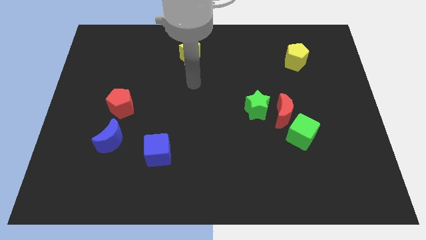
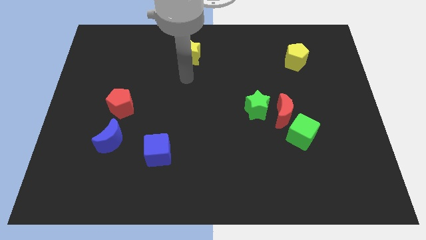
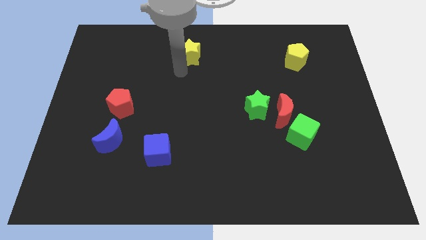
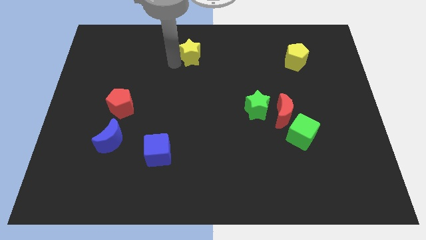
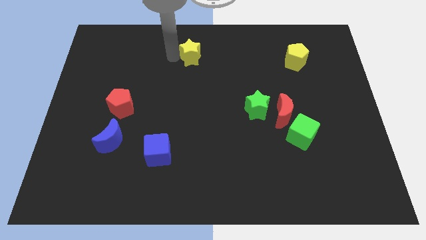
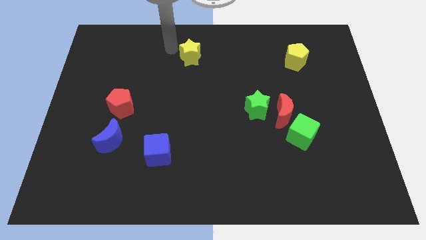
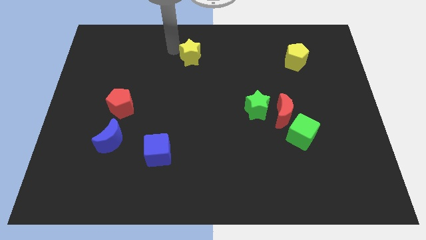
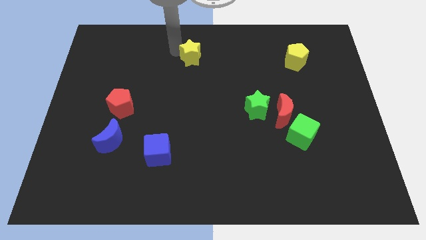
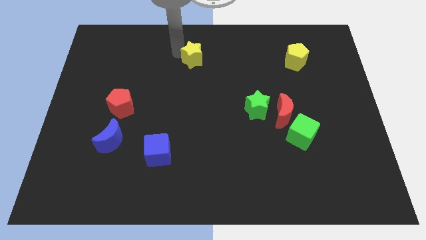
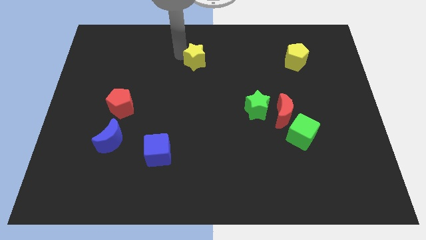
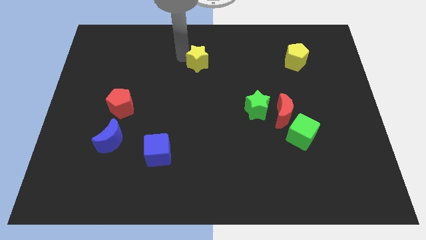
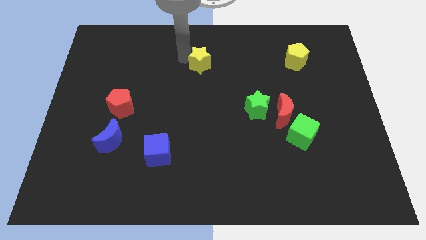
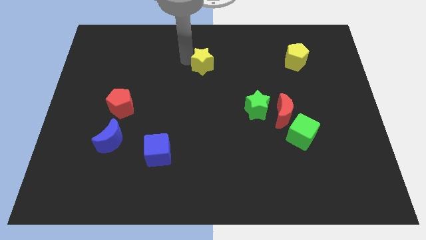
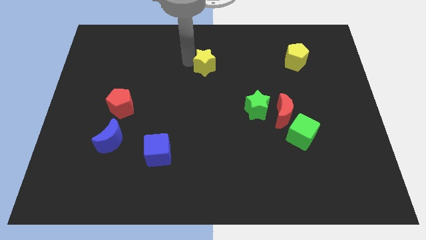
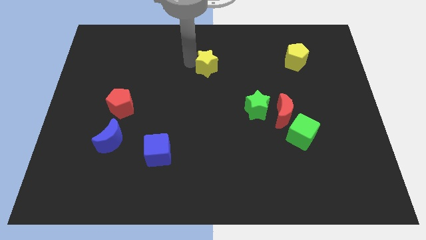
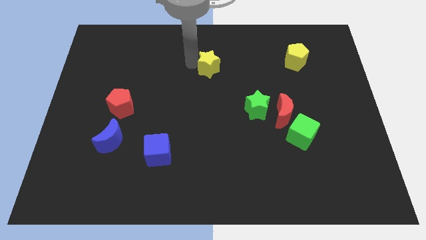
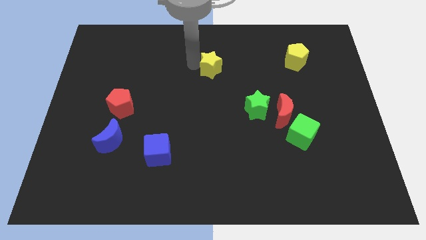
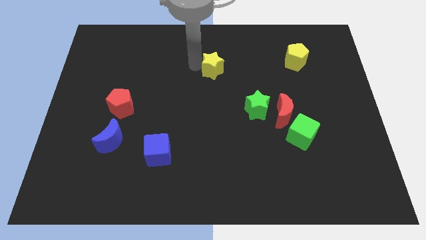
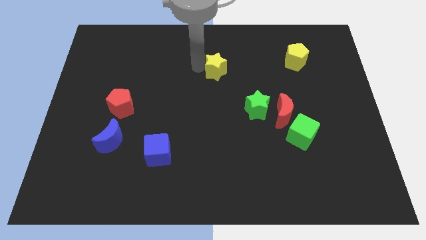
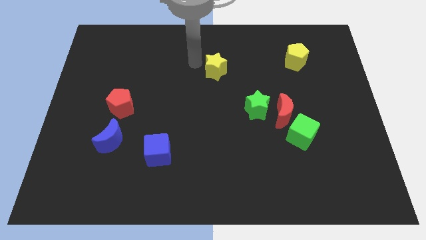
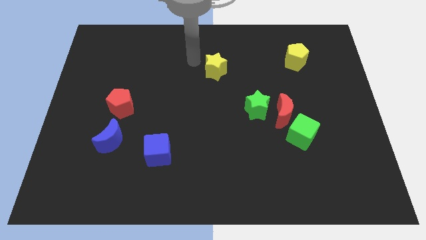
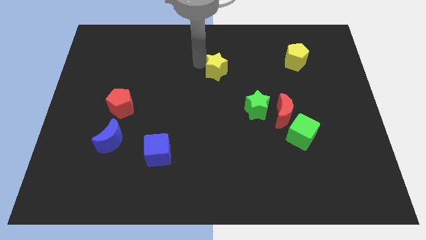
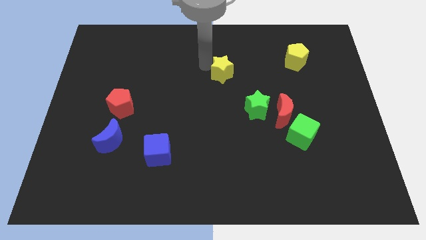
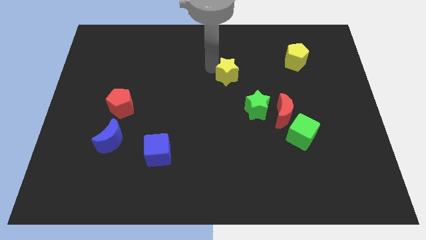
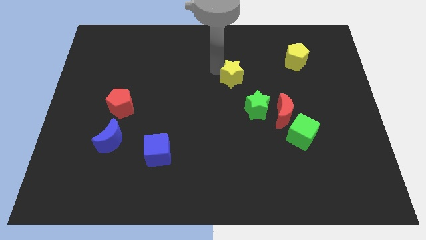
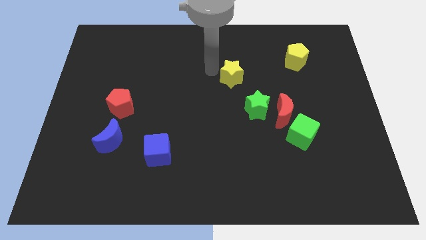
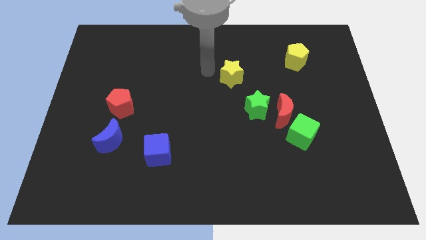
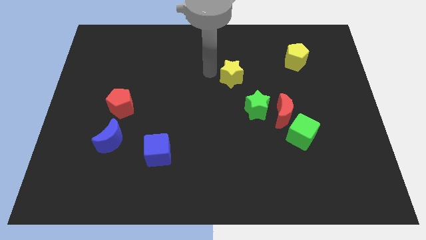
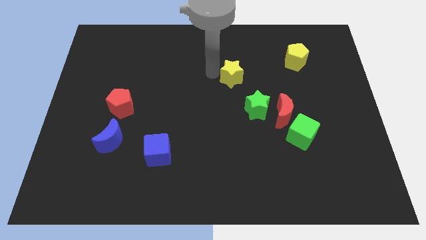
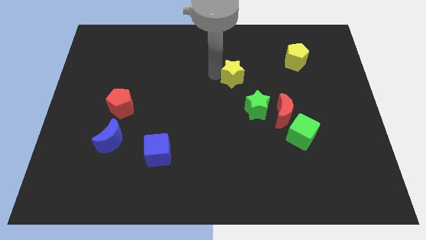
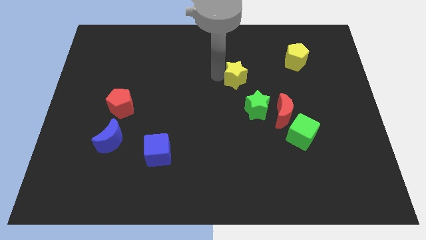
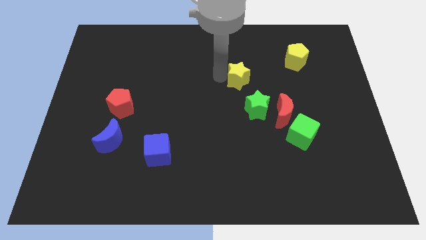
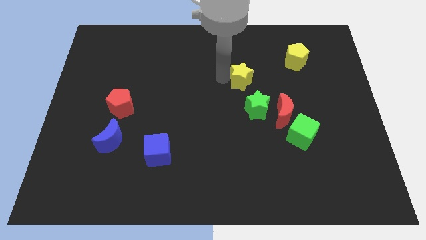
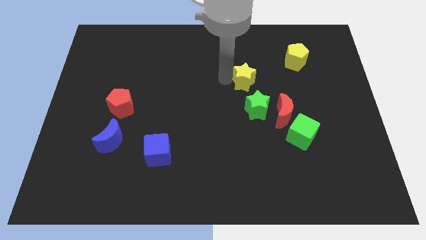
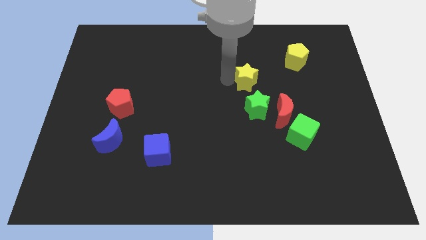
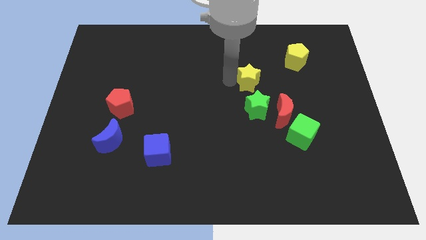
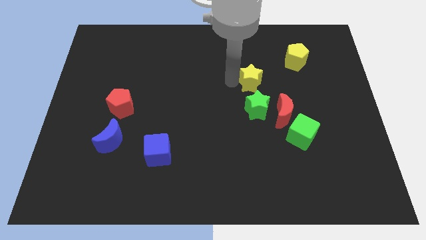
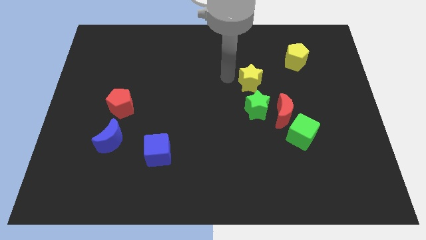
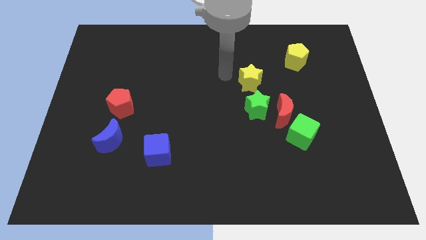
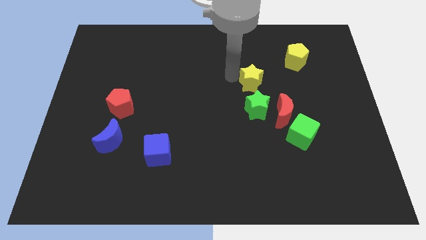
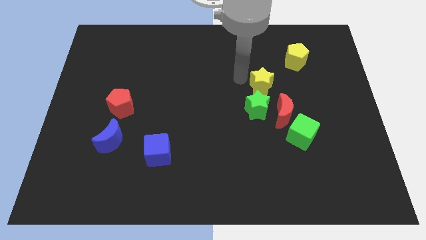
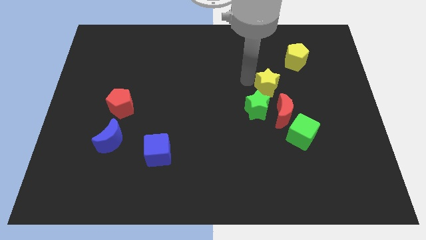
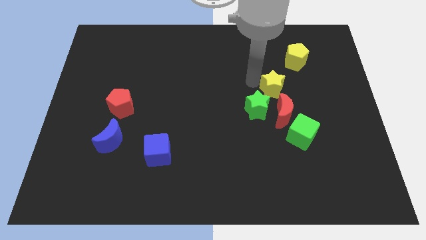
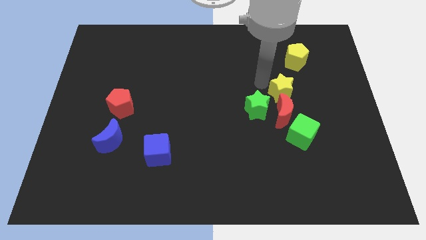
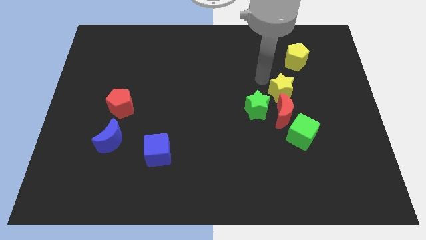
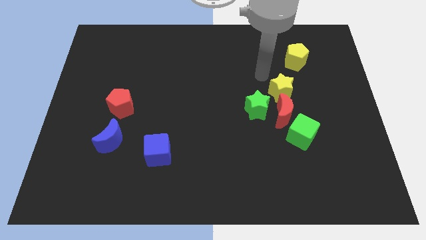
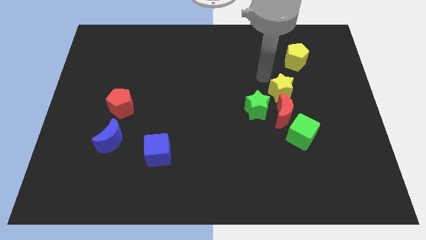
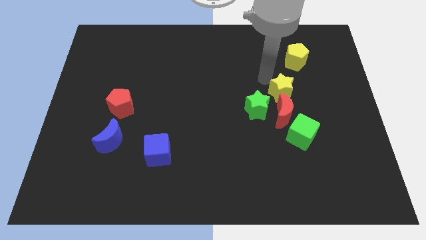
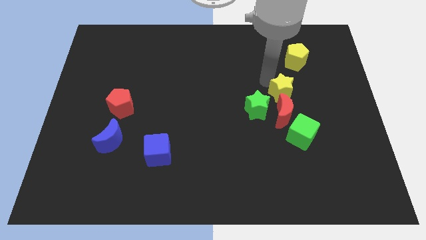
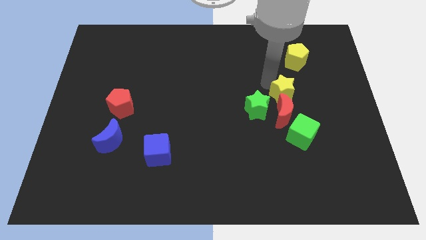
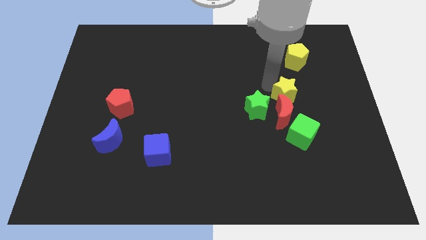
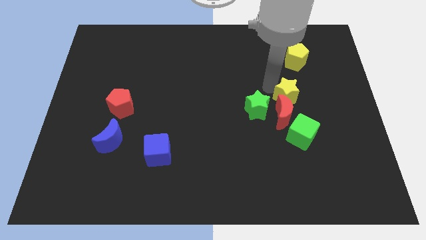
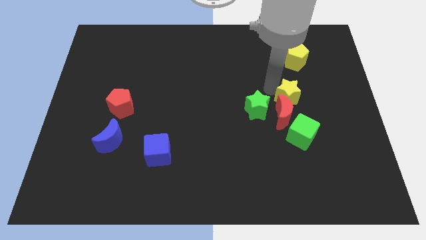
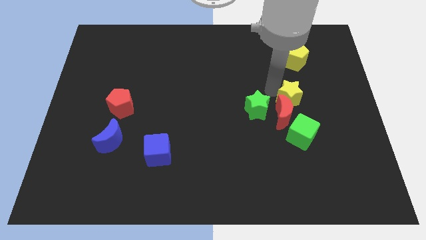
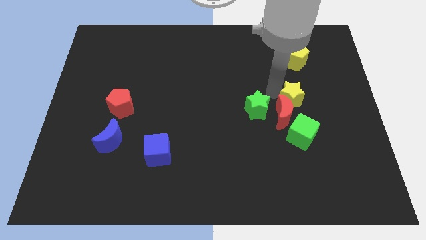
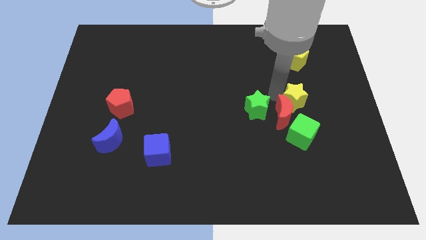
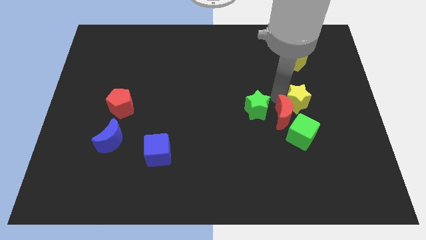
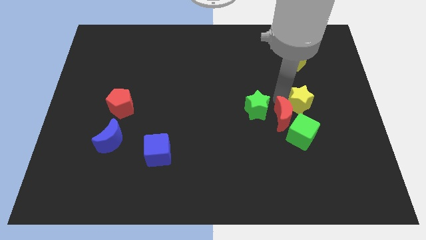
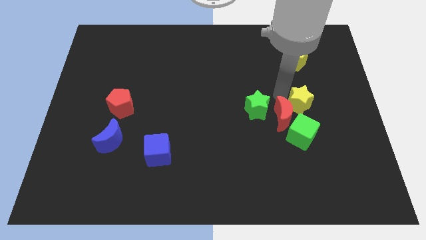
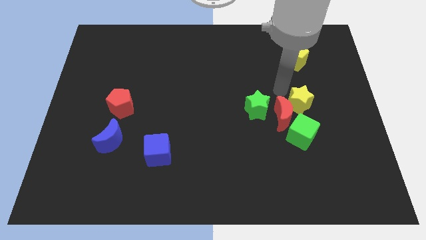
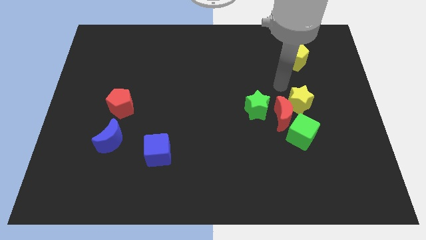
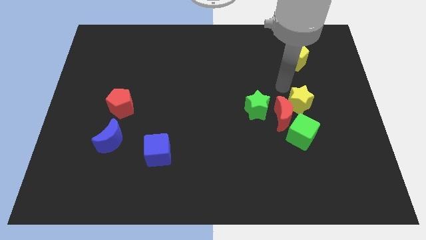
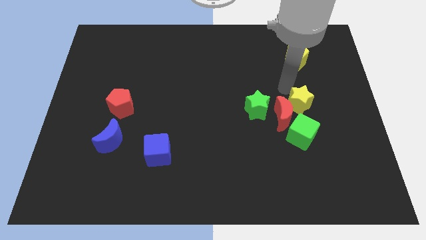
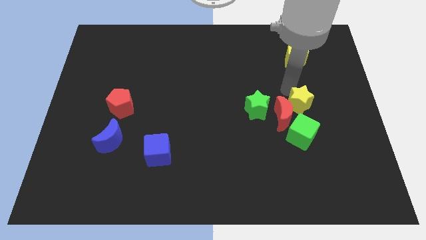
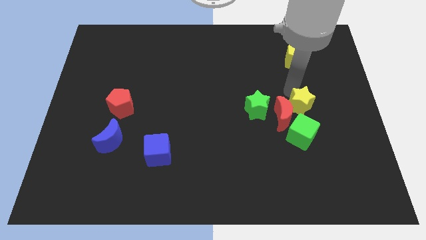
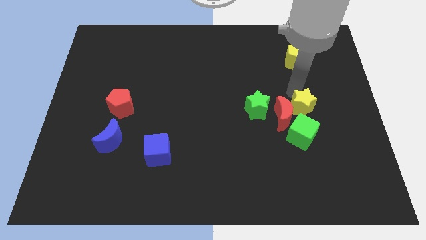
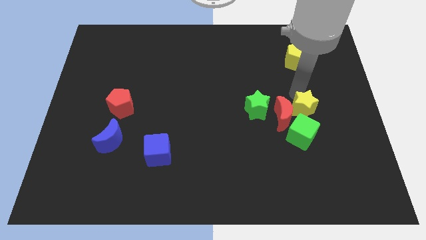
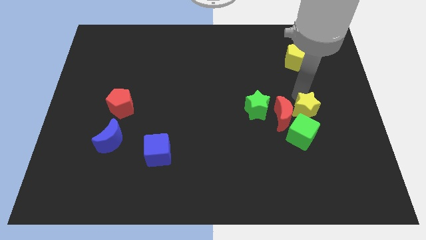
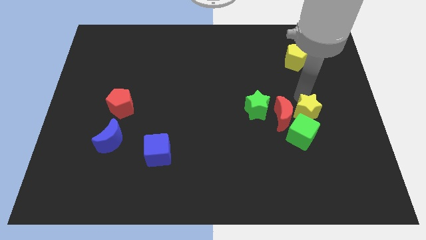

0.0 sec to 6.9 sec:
push the yellow star to the bottom right of the red moon

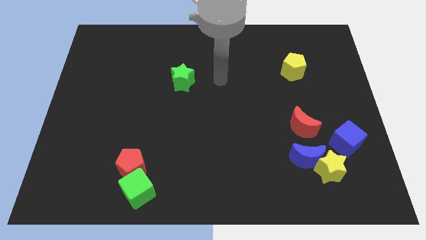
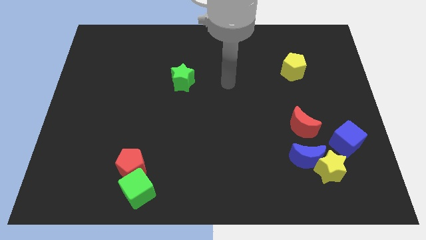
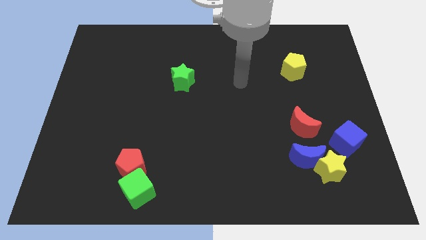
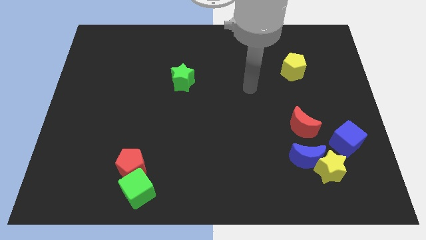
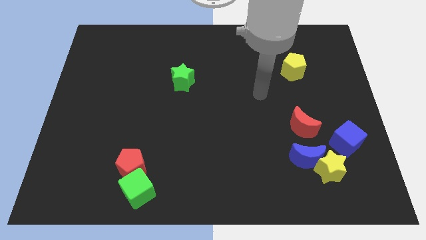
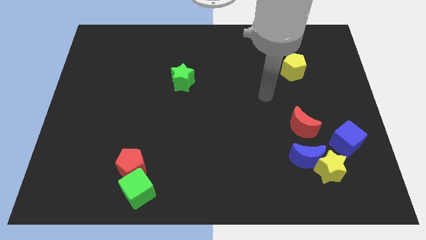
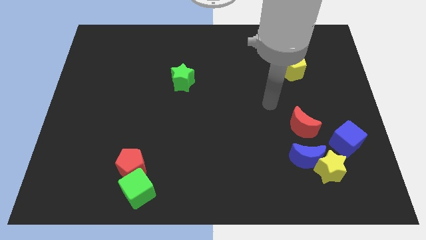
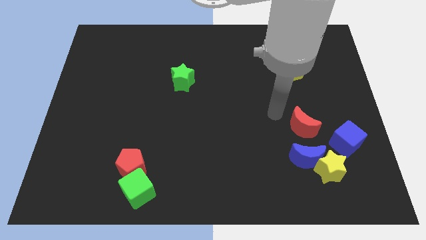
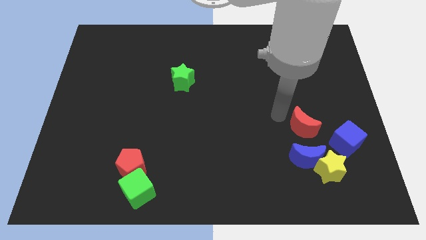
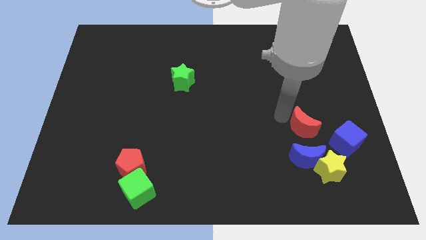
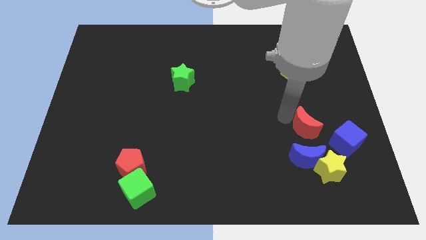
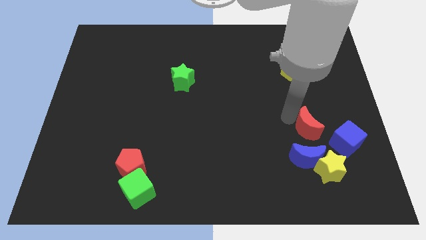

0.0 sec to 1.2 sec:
slide the red moon to the top right of the blue moon

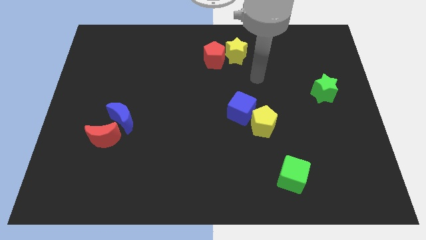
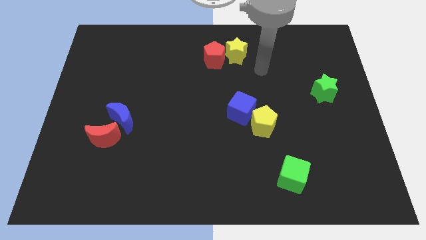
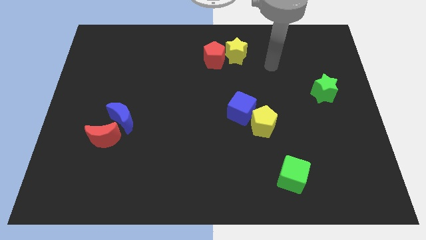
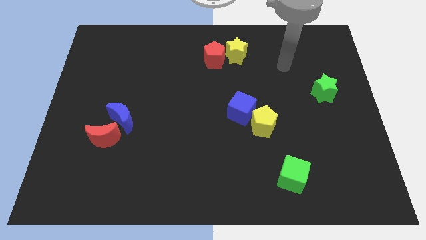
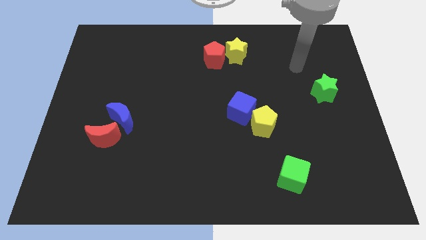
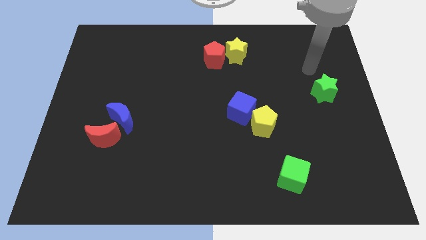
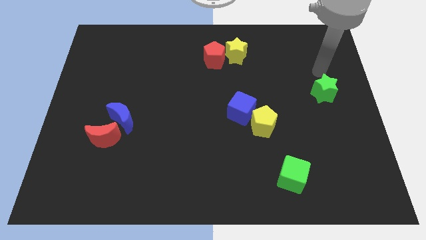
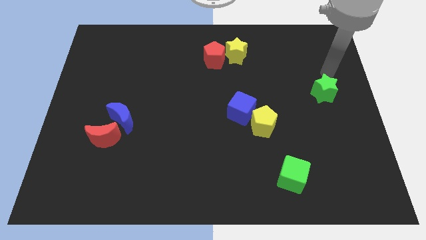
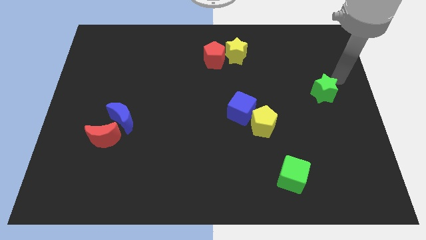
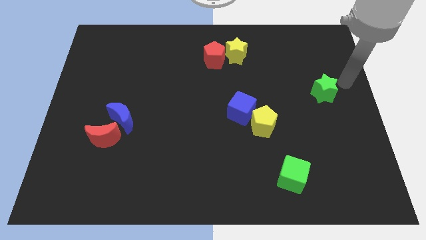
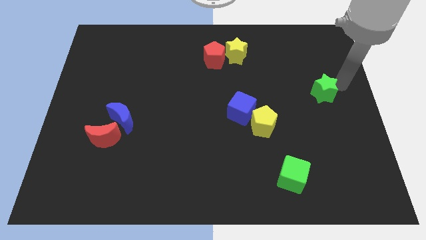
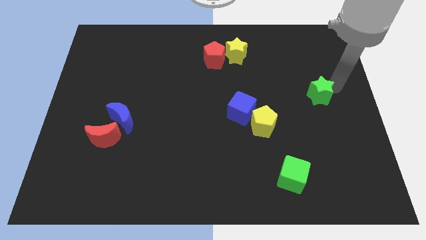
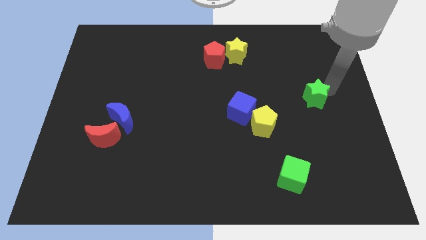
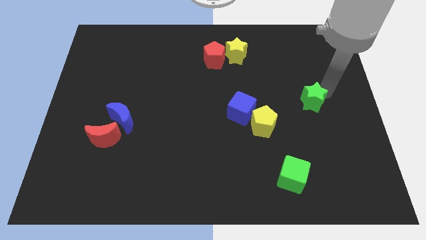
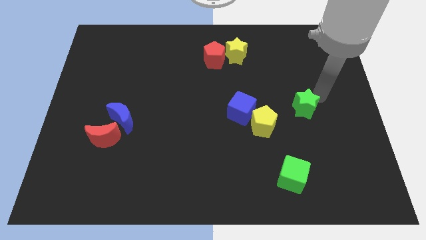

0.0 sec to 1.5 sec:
put the green star to the right side of the blue cube
